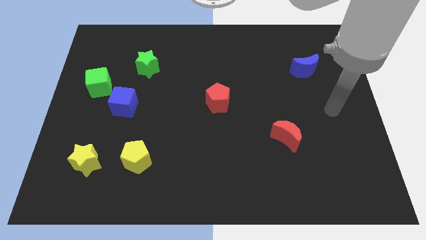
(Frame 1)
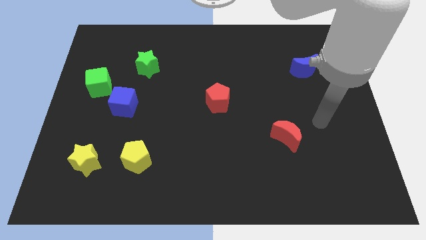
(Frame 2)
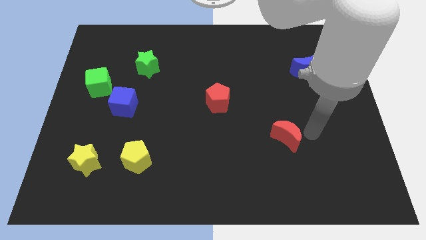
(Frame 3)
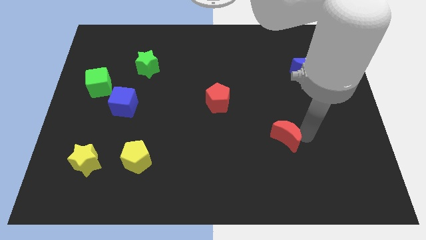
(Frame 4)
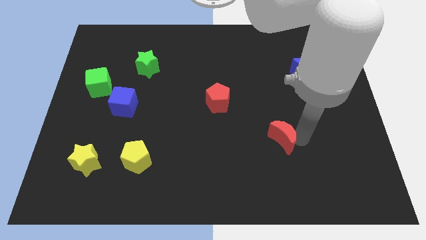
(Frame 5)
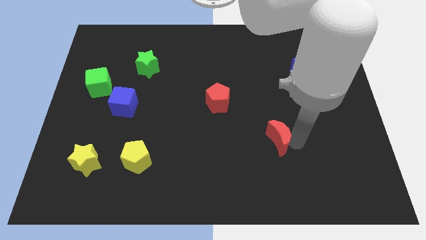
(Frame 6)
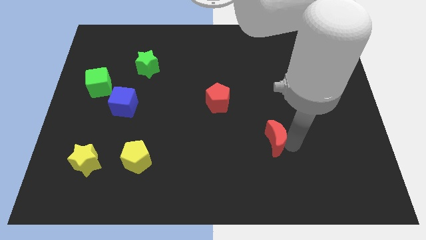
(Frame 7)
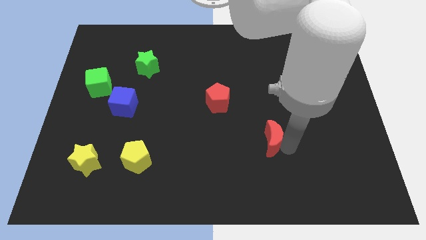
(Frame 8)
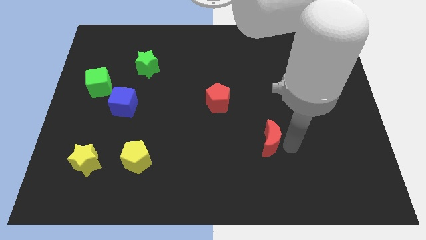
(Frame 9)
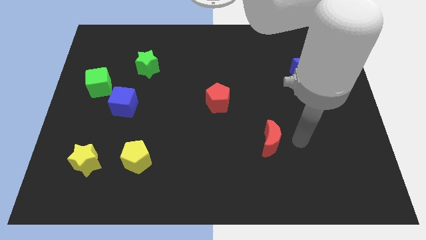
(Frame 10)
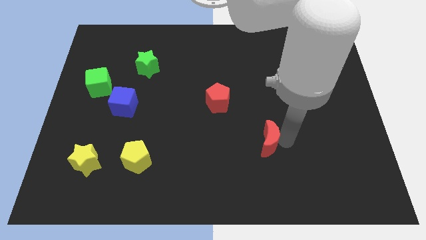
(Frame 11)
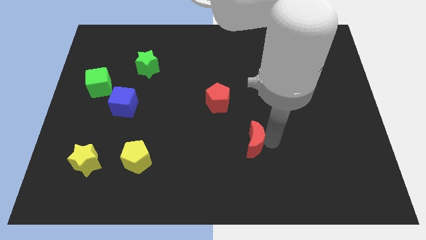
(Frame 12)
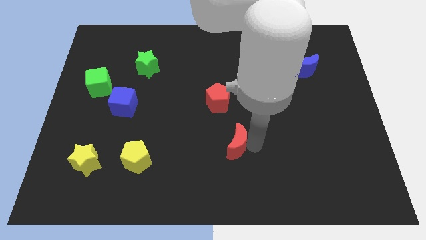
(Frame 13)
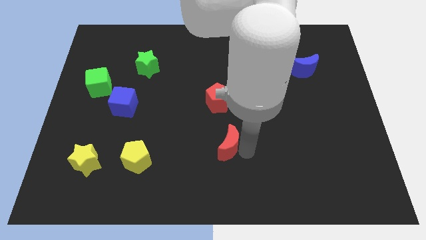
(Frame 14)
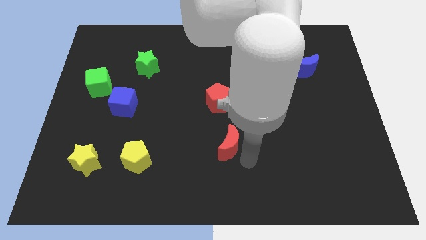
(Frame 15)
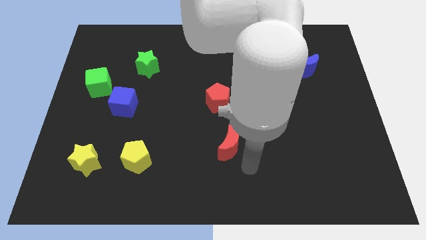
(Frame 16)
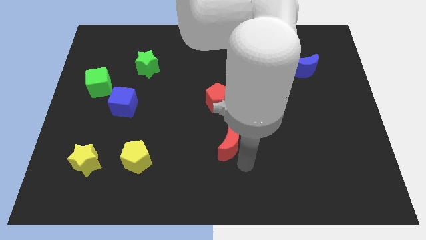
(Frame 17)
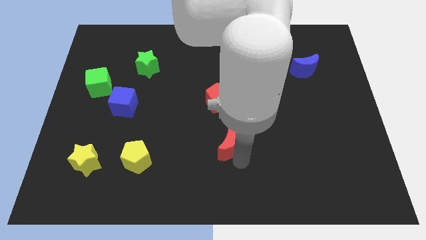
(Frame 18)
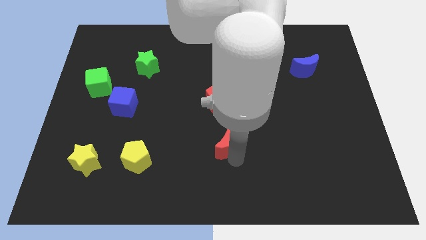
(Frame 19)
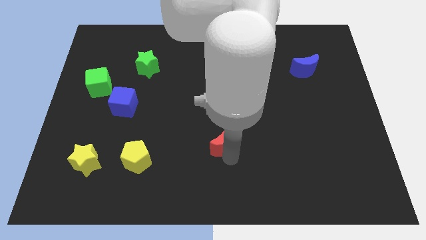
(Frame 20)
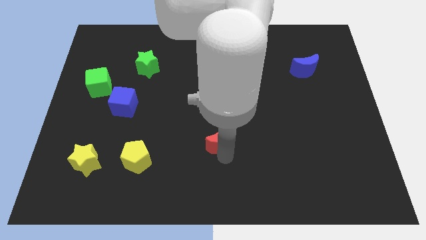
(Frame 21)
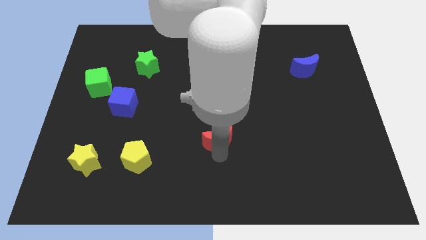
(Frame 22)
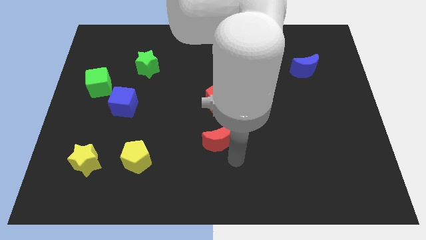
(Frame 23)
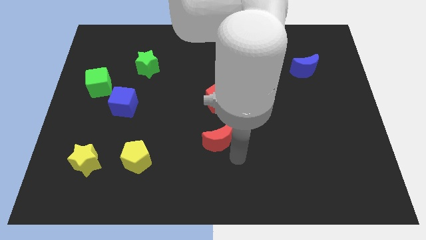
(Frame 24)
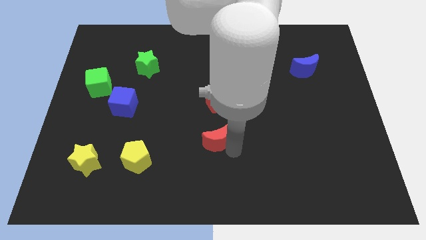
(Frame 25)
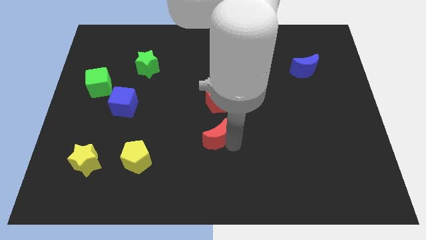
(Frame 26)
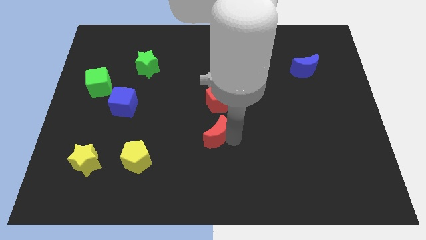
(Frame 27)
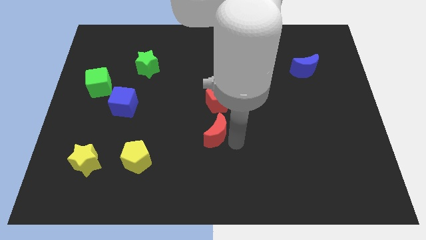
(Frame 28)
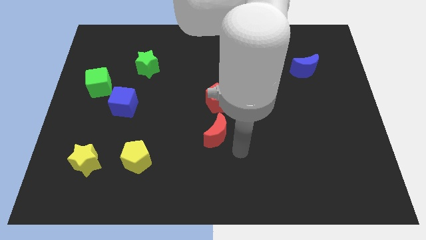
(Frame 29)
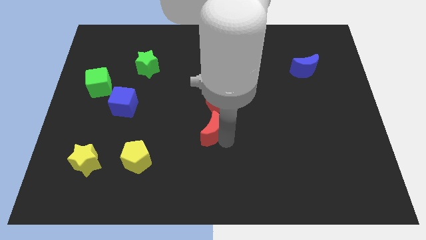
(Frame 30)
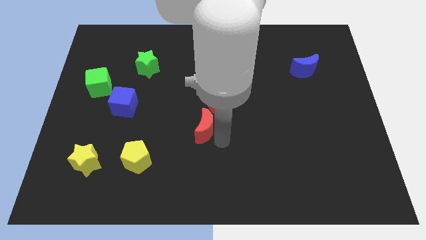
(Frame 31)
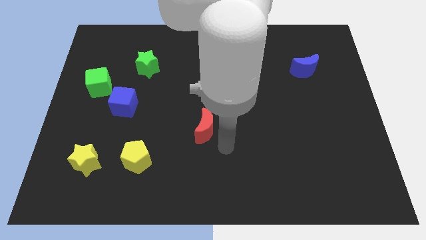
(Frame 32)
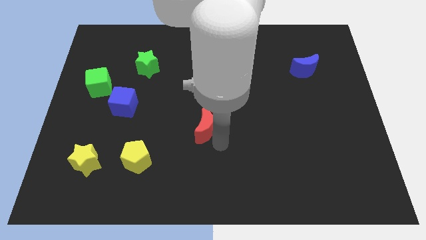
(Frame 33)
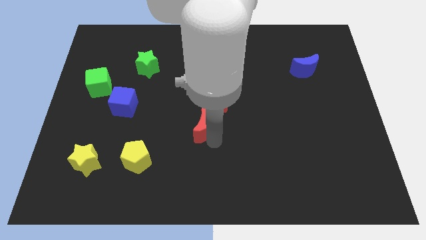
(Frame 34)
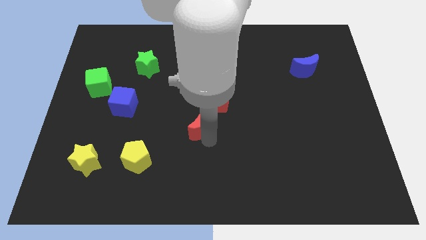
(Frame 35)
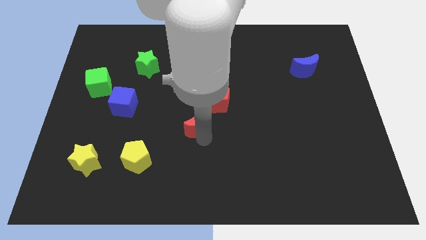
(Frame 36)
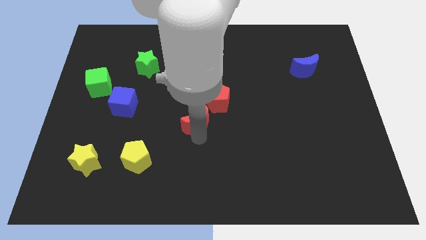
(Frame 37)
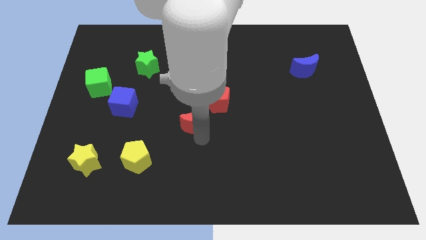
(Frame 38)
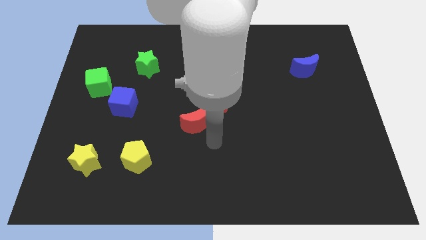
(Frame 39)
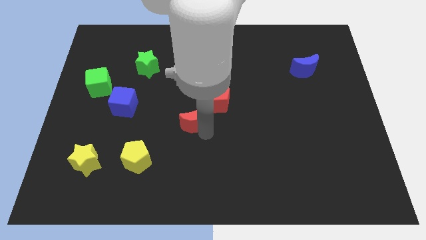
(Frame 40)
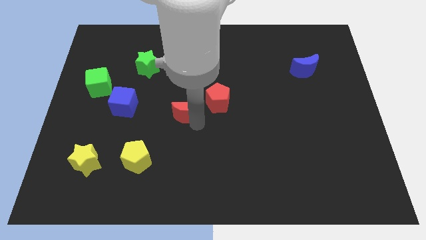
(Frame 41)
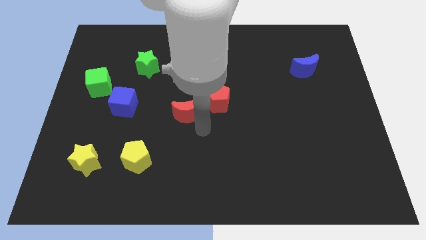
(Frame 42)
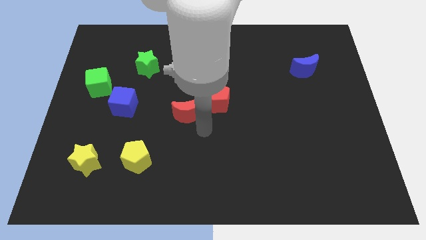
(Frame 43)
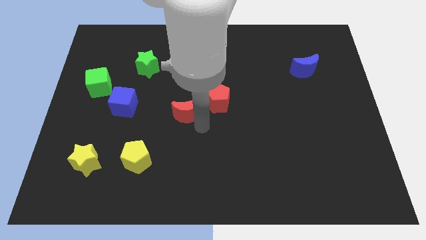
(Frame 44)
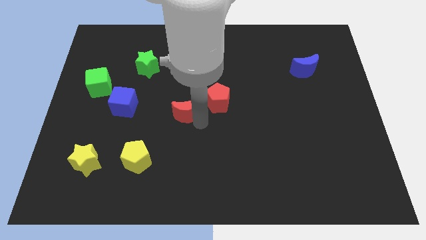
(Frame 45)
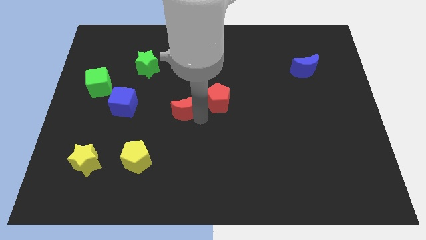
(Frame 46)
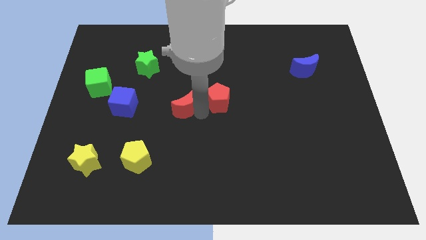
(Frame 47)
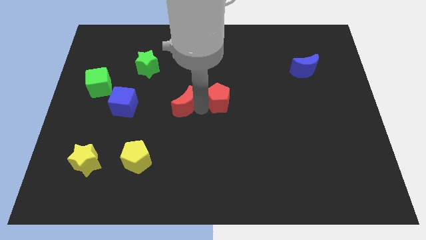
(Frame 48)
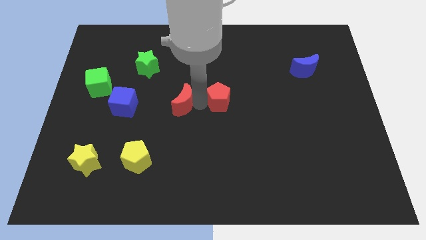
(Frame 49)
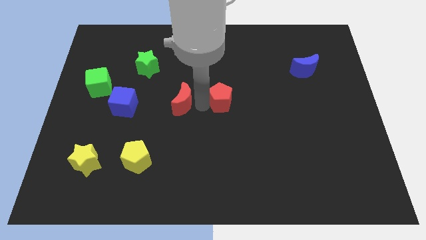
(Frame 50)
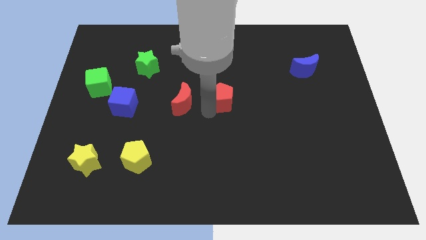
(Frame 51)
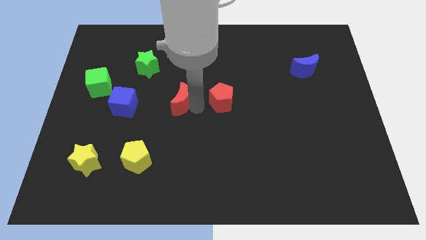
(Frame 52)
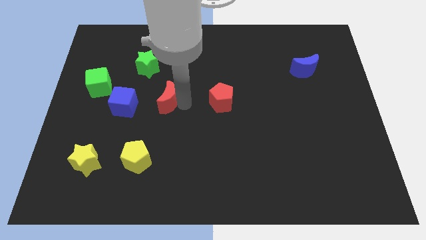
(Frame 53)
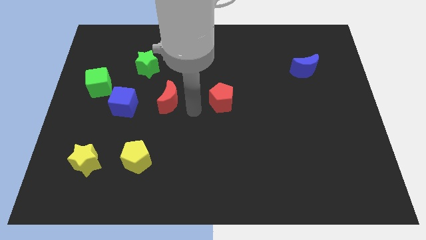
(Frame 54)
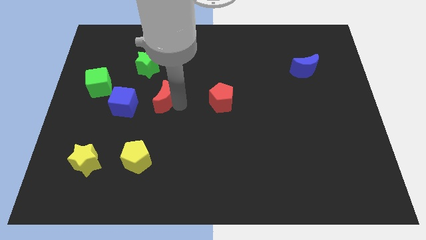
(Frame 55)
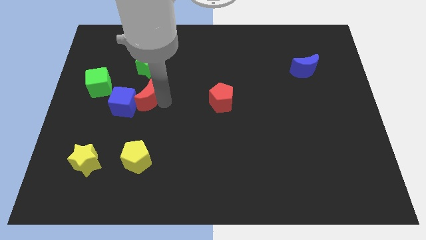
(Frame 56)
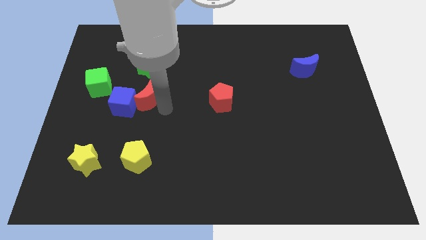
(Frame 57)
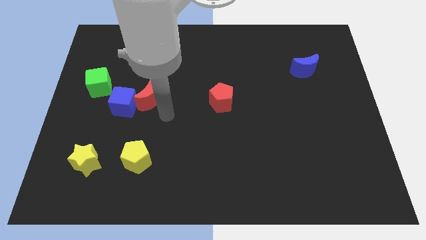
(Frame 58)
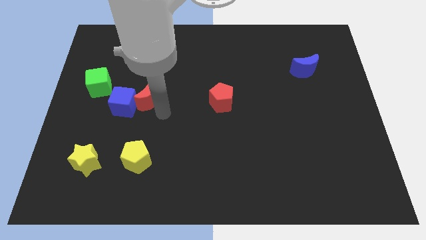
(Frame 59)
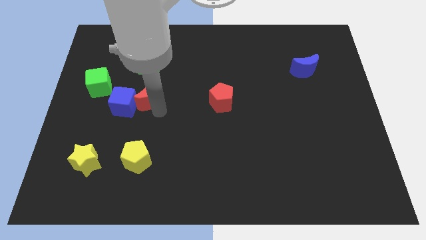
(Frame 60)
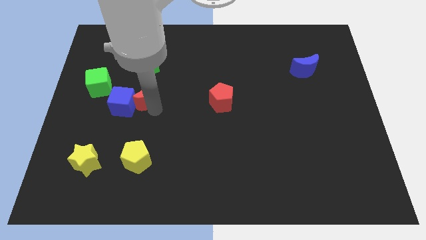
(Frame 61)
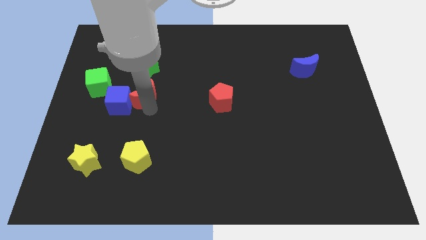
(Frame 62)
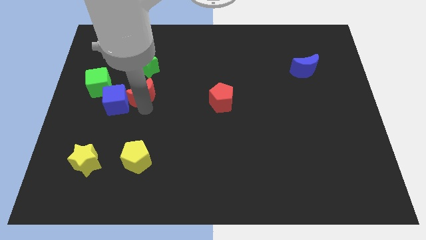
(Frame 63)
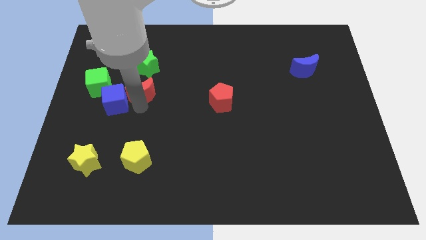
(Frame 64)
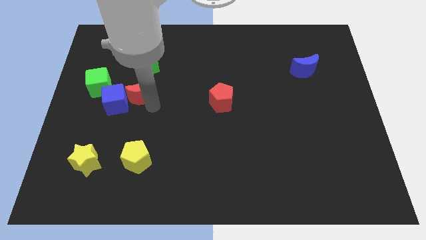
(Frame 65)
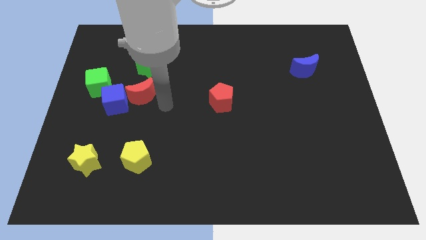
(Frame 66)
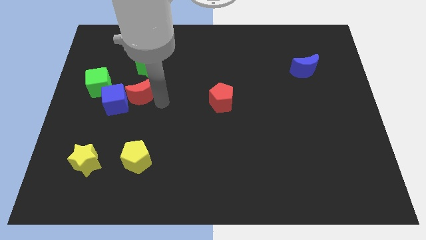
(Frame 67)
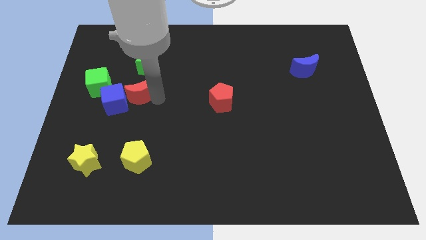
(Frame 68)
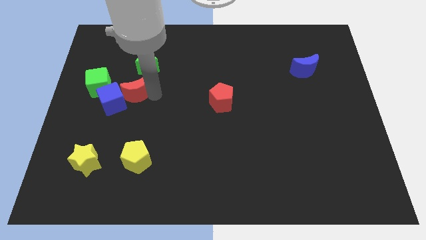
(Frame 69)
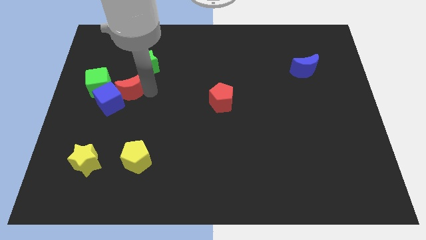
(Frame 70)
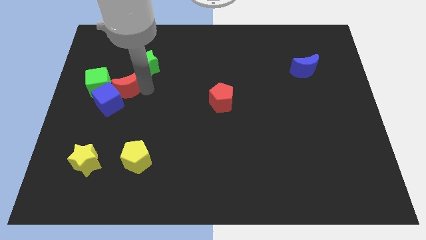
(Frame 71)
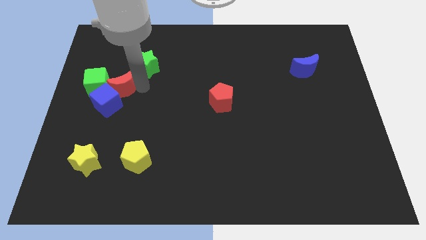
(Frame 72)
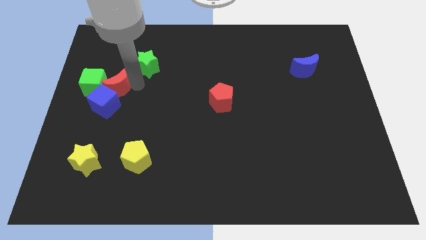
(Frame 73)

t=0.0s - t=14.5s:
move the red moon towards the green cube
